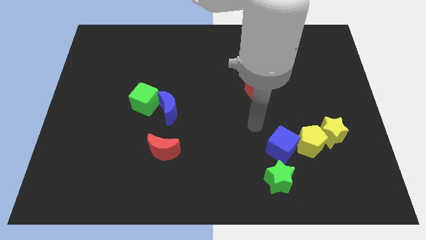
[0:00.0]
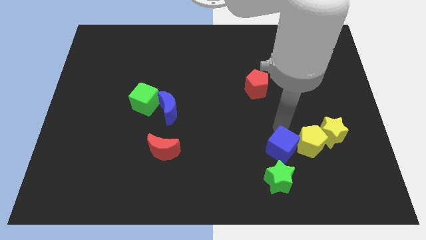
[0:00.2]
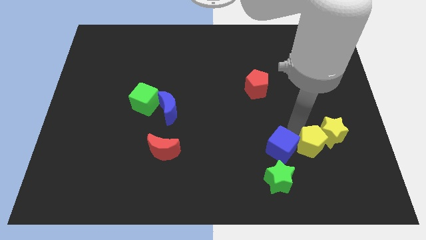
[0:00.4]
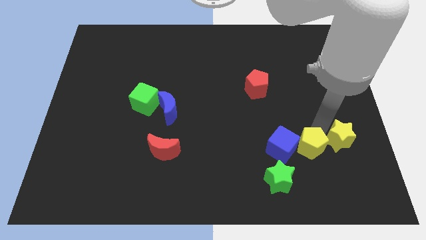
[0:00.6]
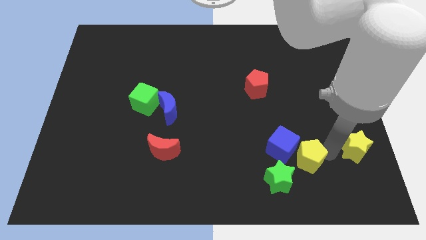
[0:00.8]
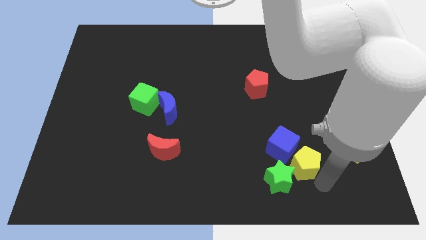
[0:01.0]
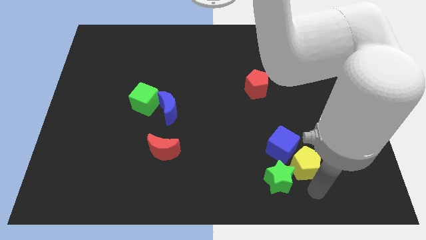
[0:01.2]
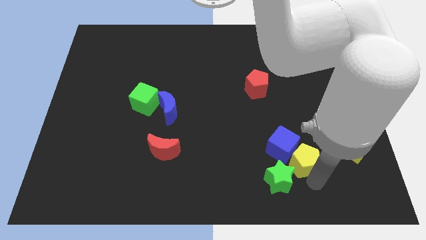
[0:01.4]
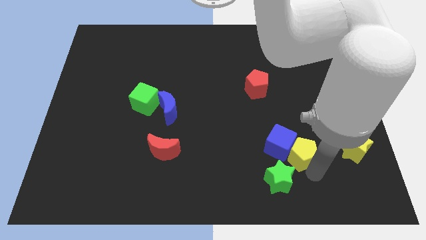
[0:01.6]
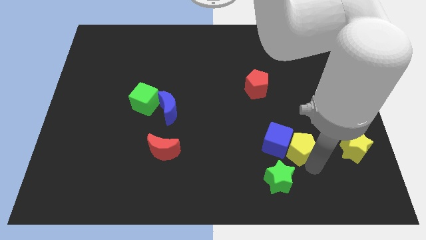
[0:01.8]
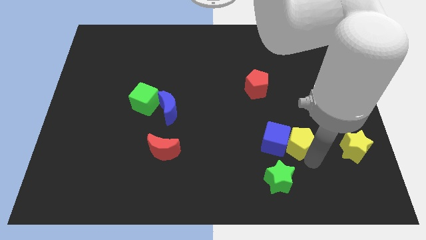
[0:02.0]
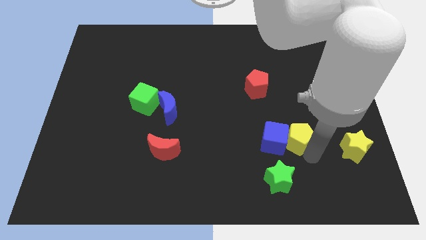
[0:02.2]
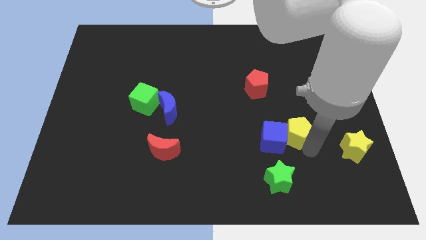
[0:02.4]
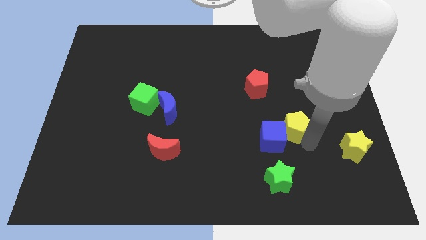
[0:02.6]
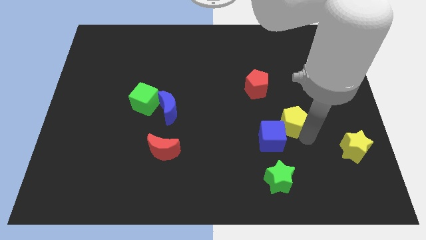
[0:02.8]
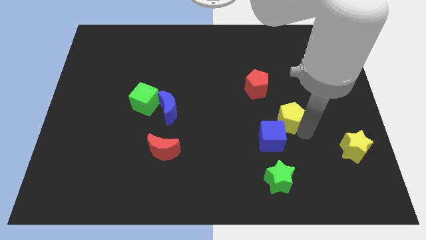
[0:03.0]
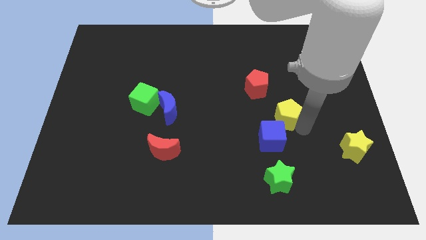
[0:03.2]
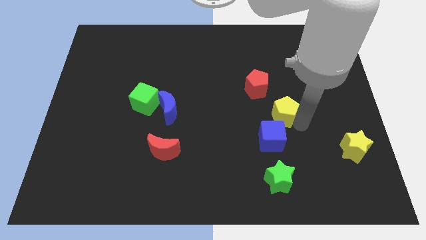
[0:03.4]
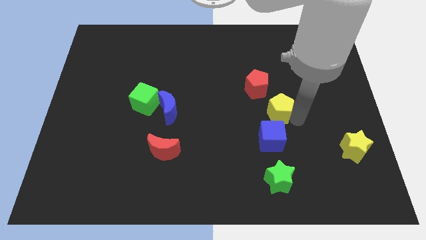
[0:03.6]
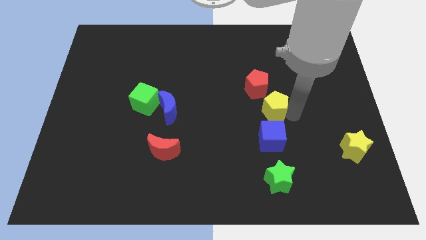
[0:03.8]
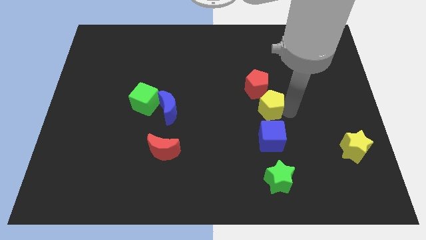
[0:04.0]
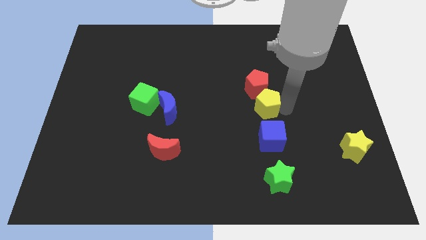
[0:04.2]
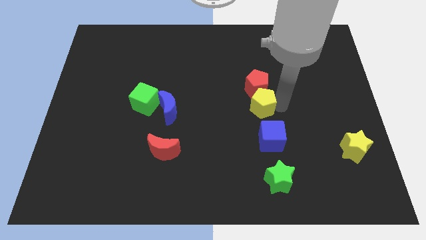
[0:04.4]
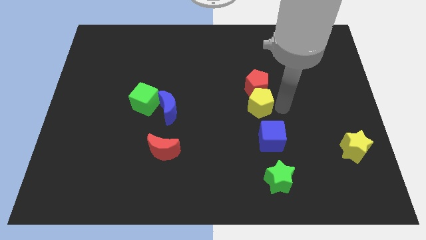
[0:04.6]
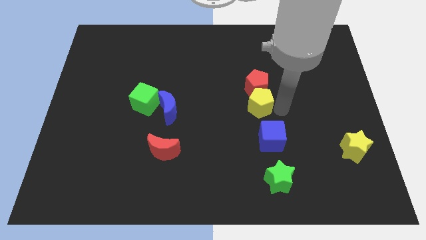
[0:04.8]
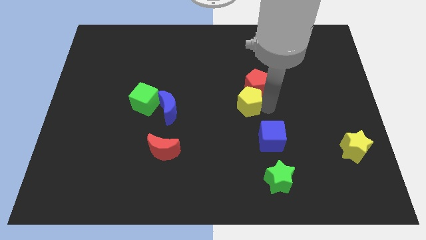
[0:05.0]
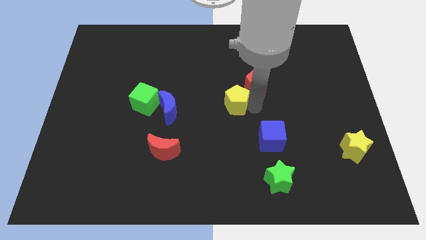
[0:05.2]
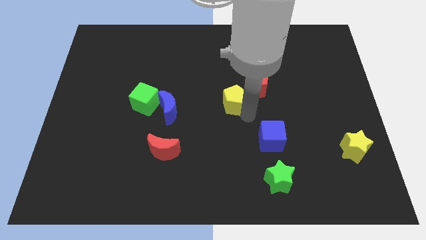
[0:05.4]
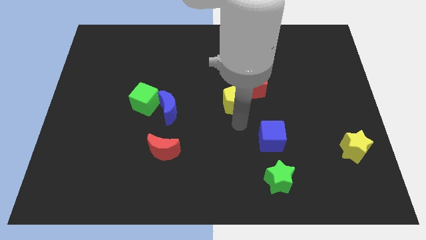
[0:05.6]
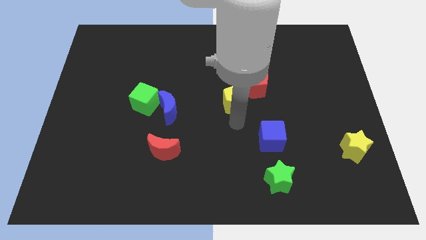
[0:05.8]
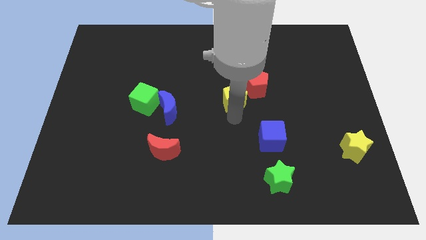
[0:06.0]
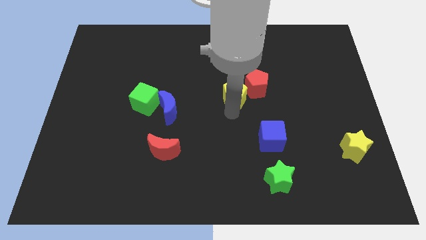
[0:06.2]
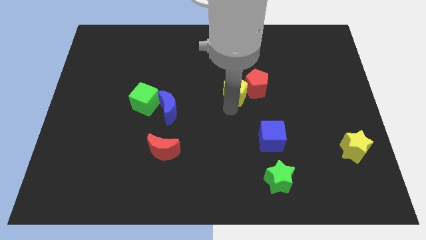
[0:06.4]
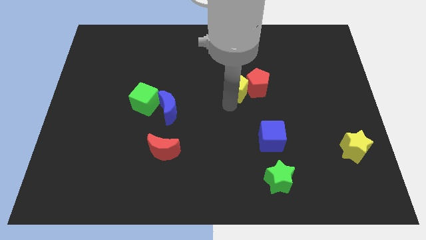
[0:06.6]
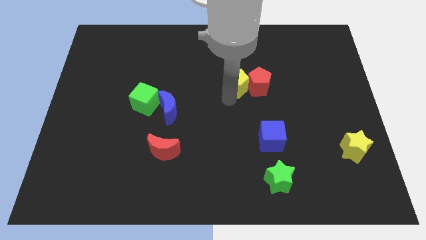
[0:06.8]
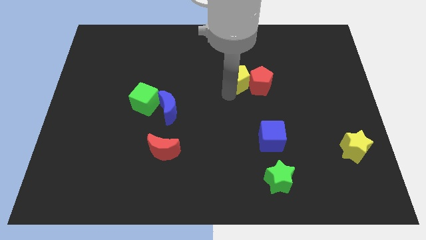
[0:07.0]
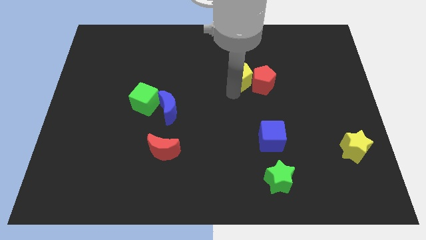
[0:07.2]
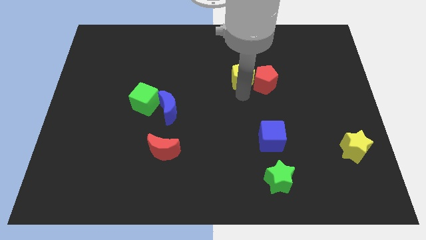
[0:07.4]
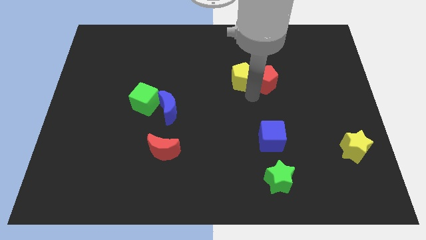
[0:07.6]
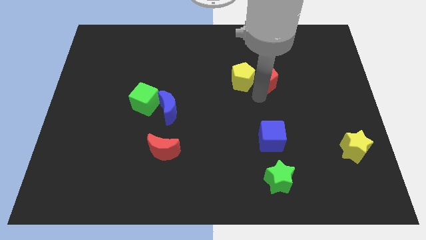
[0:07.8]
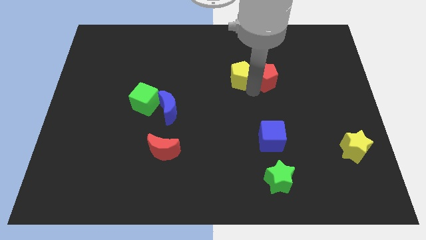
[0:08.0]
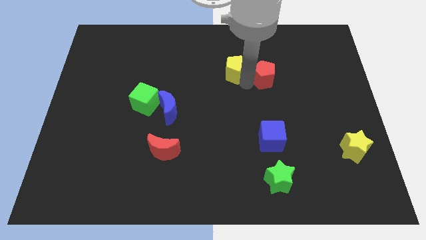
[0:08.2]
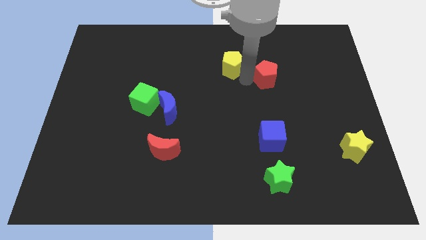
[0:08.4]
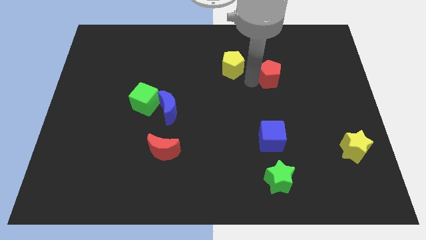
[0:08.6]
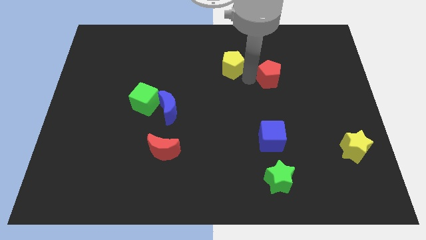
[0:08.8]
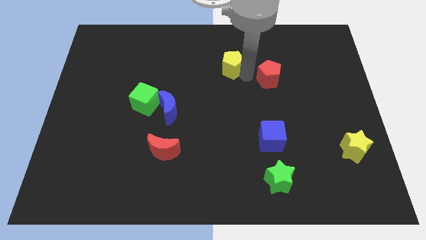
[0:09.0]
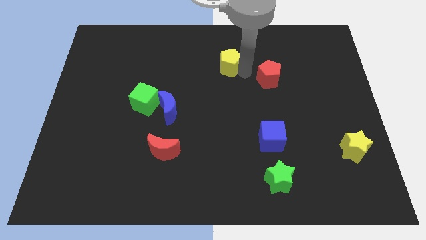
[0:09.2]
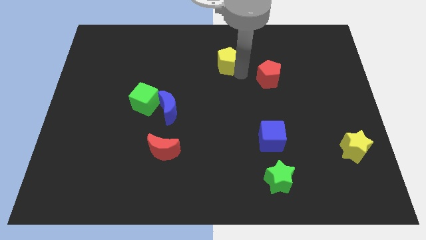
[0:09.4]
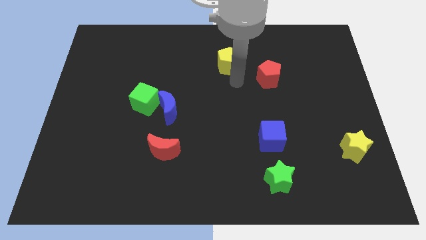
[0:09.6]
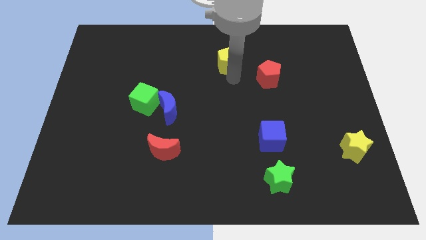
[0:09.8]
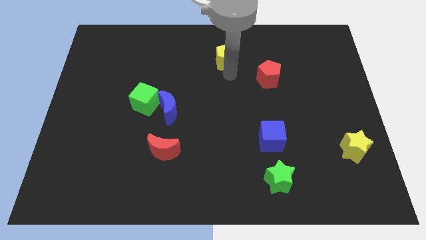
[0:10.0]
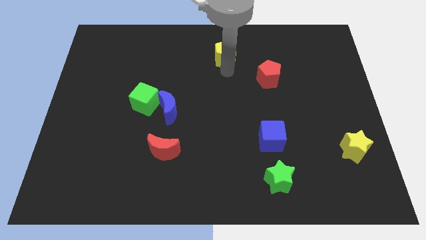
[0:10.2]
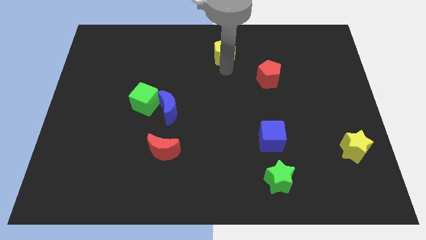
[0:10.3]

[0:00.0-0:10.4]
put the yellow pentagon to the top side

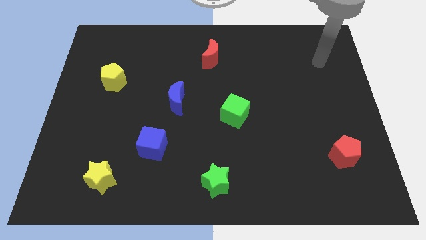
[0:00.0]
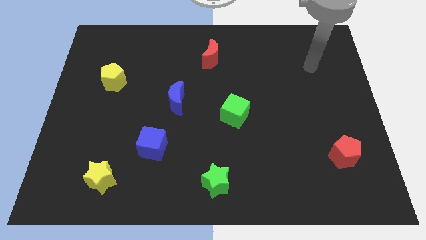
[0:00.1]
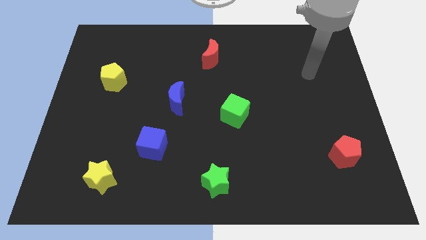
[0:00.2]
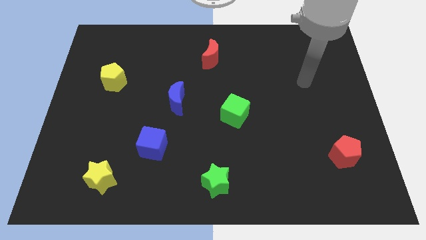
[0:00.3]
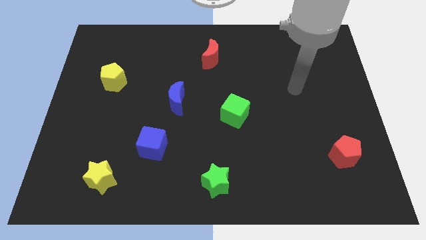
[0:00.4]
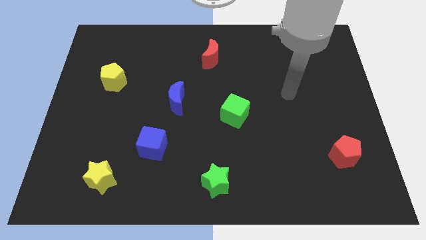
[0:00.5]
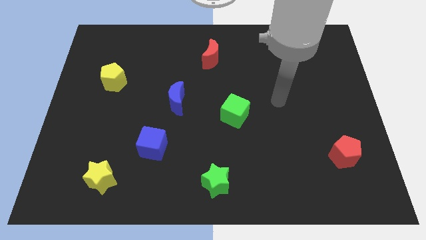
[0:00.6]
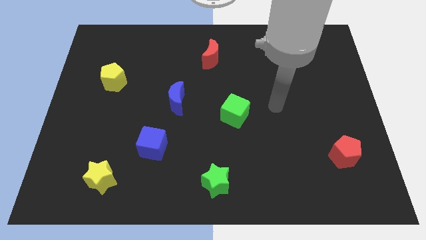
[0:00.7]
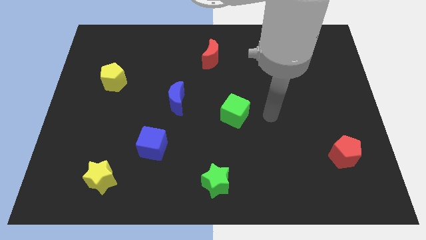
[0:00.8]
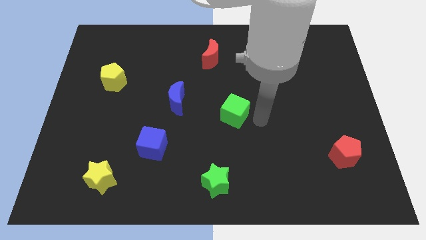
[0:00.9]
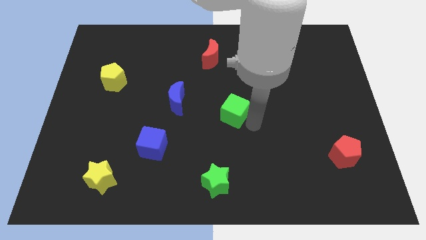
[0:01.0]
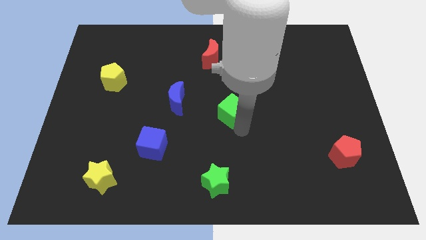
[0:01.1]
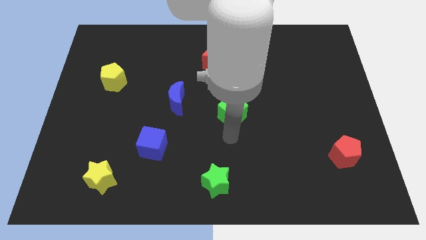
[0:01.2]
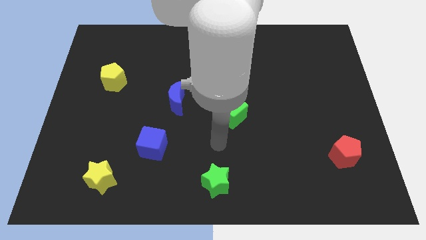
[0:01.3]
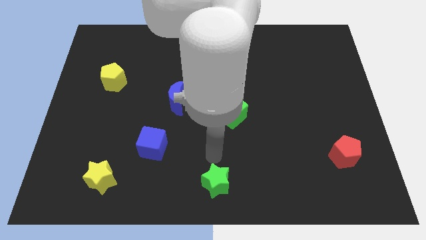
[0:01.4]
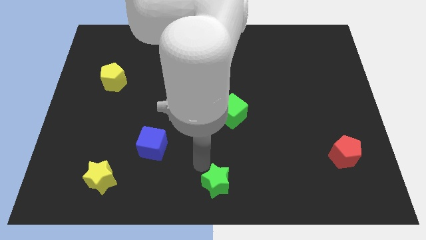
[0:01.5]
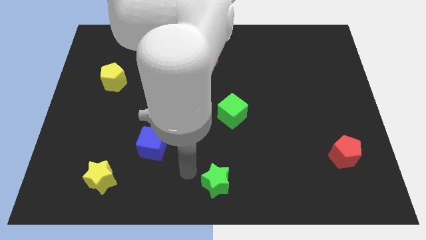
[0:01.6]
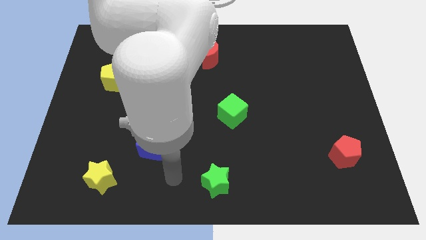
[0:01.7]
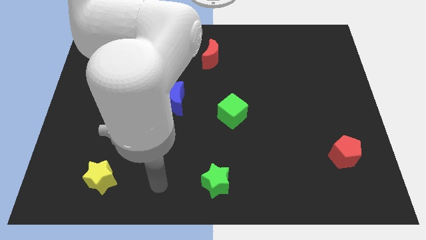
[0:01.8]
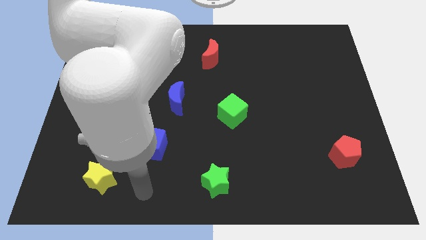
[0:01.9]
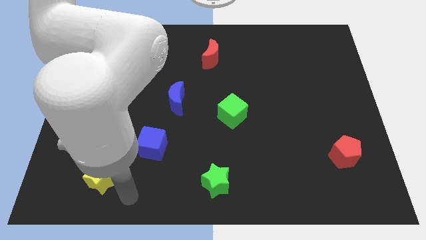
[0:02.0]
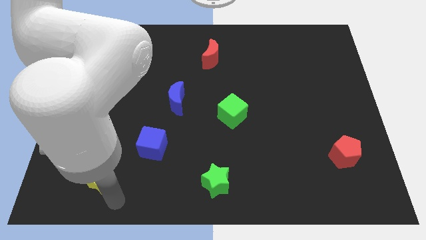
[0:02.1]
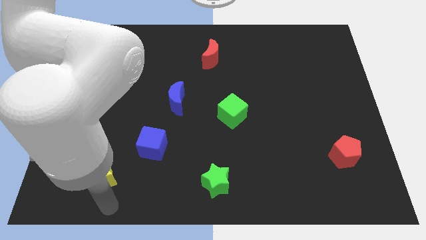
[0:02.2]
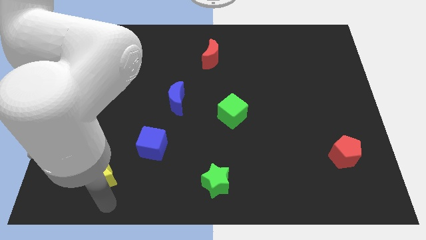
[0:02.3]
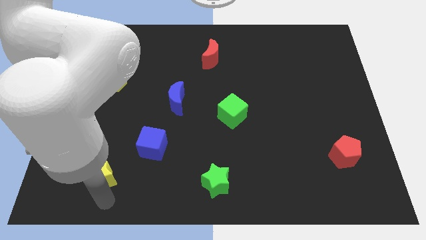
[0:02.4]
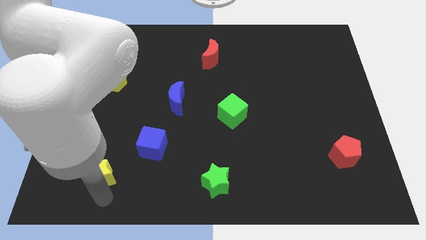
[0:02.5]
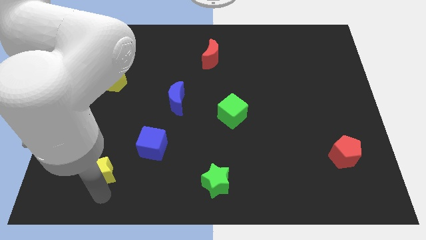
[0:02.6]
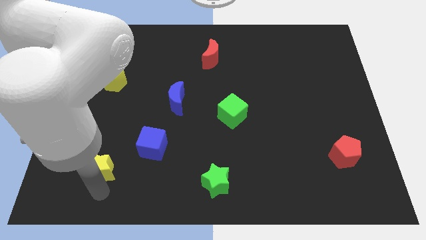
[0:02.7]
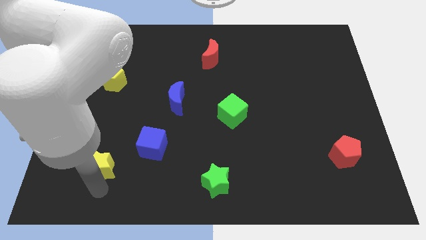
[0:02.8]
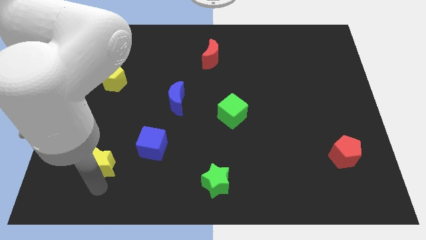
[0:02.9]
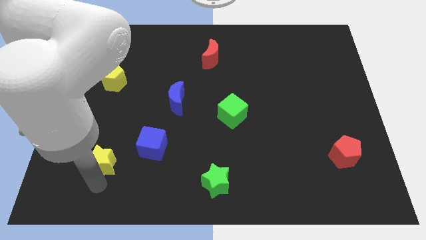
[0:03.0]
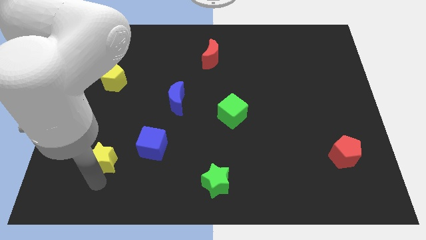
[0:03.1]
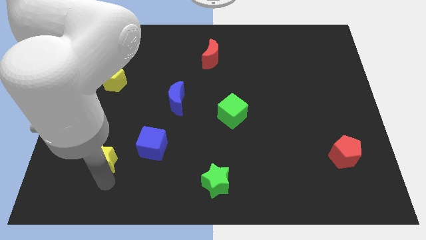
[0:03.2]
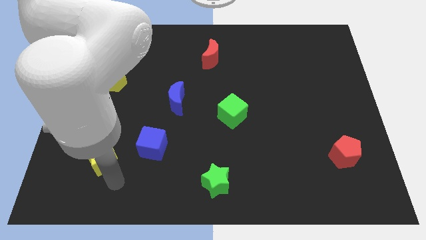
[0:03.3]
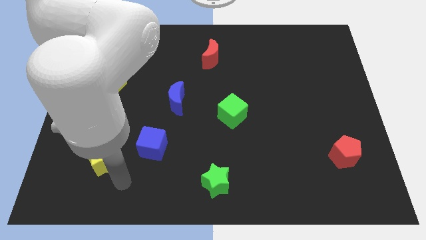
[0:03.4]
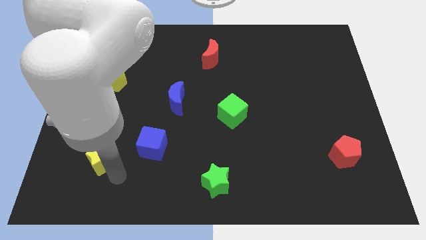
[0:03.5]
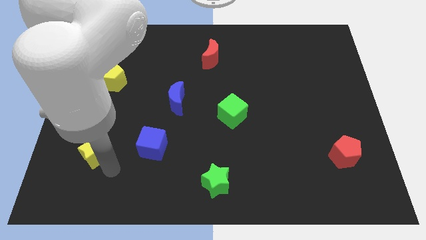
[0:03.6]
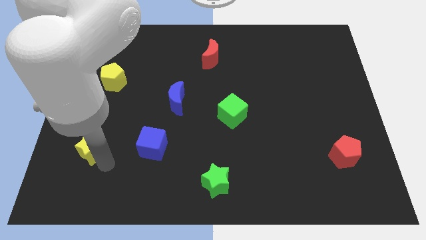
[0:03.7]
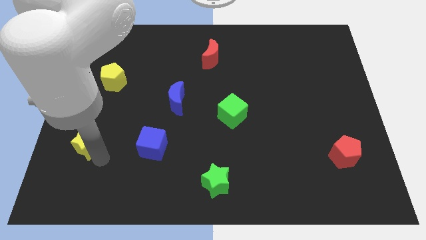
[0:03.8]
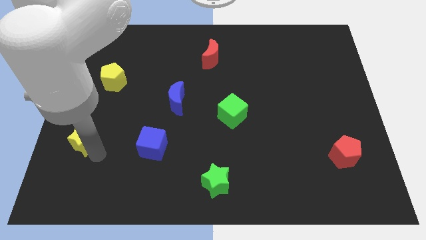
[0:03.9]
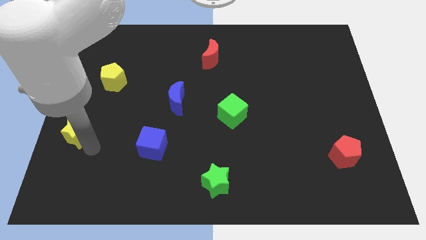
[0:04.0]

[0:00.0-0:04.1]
move the yellow star to the left side of the board
